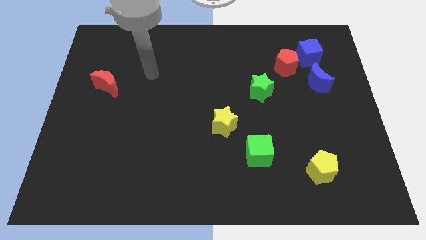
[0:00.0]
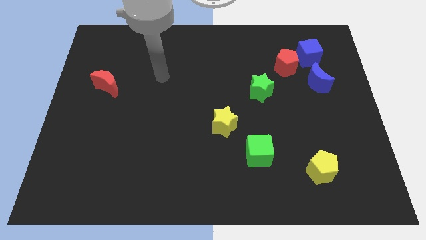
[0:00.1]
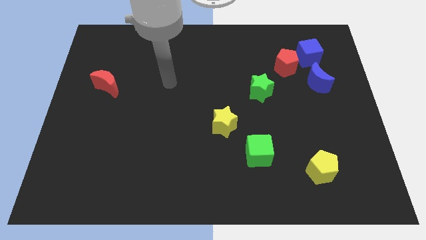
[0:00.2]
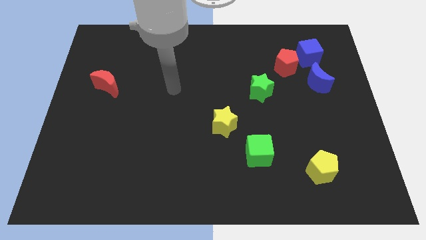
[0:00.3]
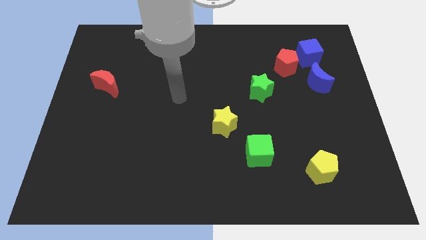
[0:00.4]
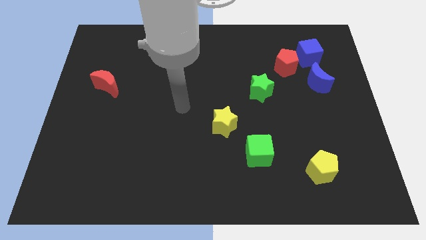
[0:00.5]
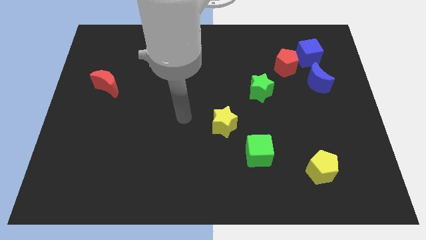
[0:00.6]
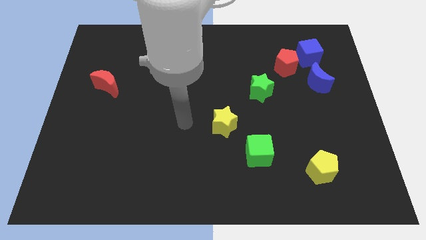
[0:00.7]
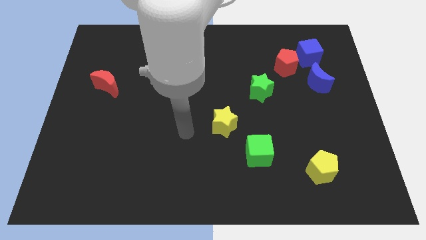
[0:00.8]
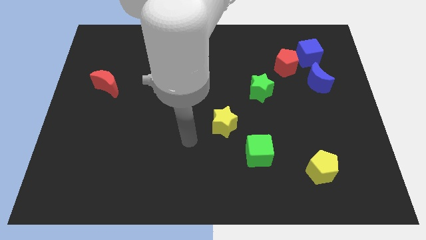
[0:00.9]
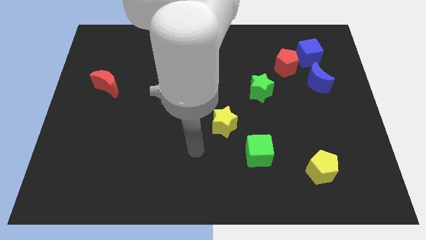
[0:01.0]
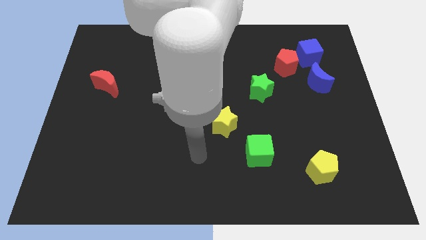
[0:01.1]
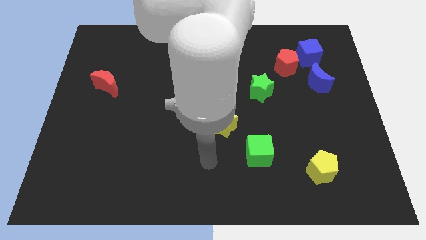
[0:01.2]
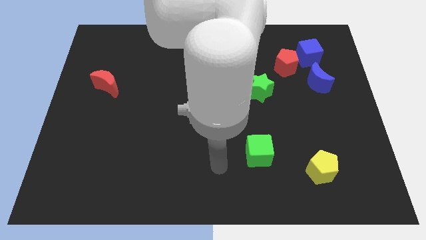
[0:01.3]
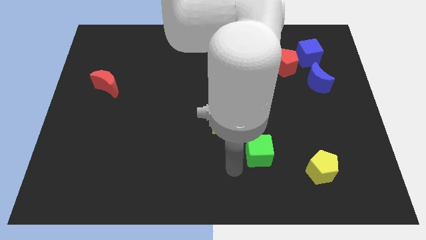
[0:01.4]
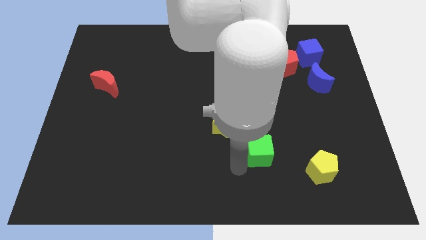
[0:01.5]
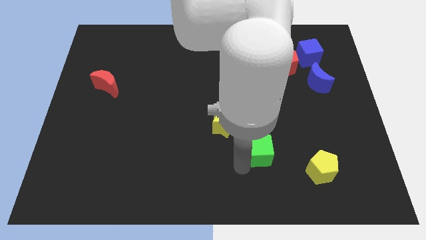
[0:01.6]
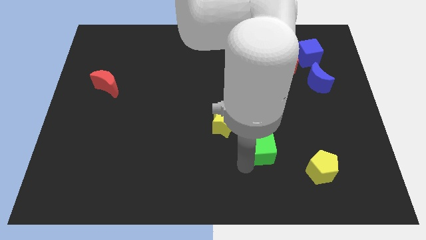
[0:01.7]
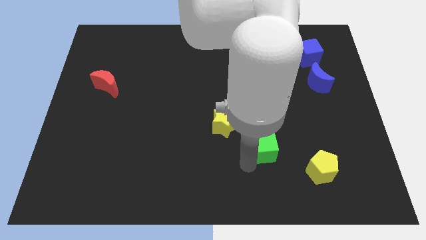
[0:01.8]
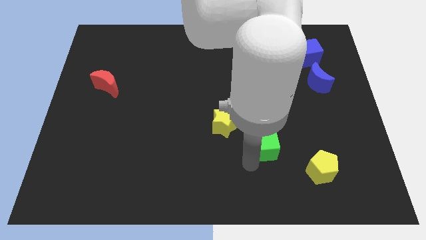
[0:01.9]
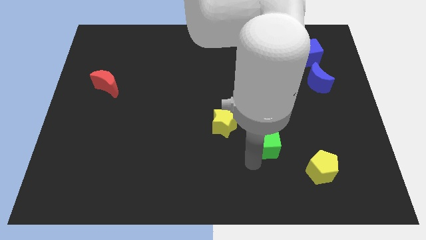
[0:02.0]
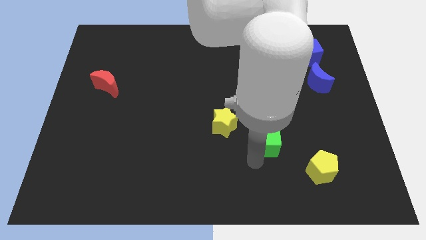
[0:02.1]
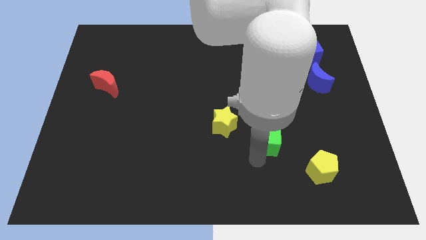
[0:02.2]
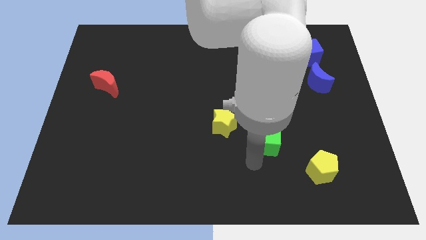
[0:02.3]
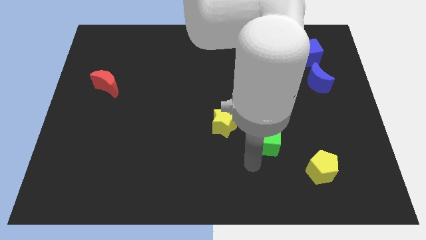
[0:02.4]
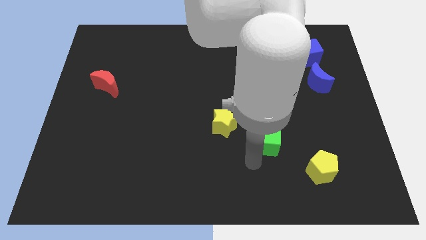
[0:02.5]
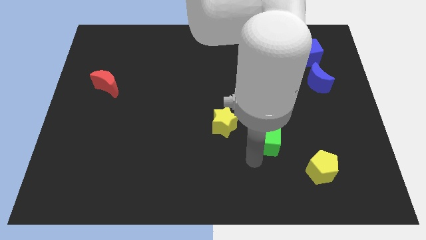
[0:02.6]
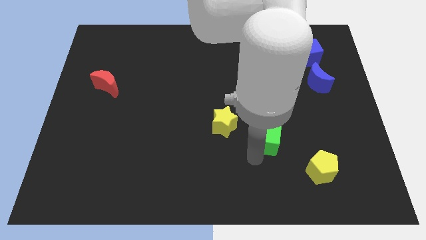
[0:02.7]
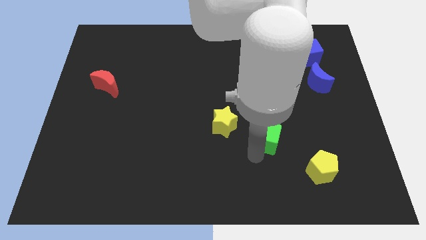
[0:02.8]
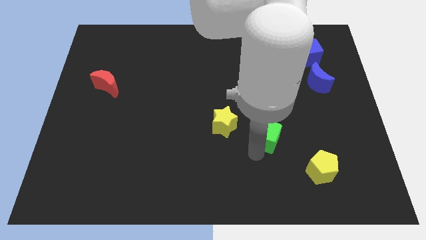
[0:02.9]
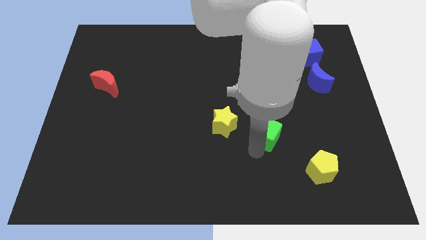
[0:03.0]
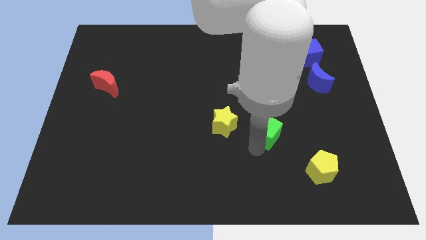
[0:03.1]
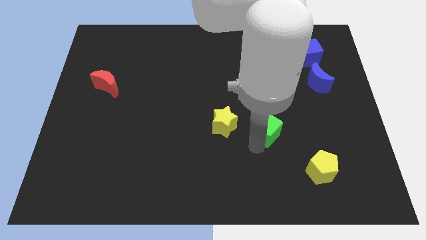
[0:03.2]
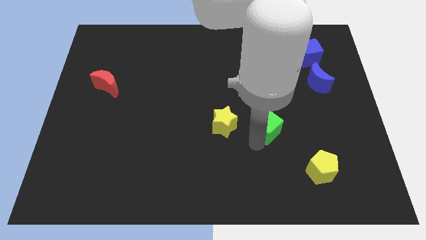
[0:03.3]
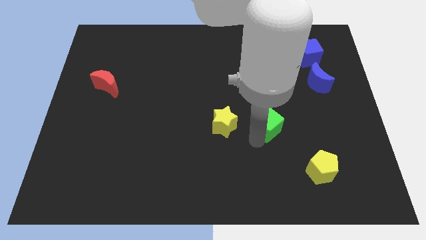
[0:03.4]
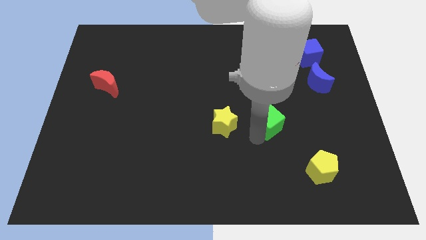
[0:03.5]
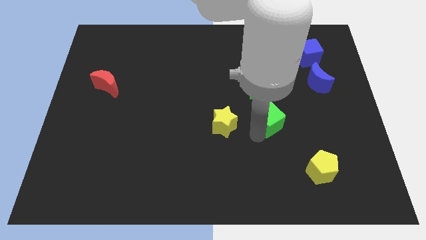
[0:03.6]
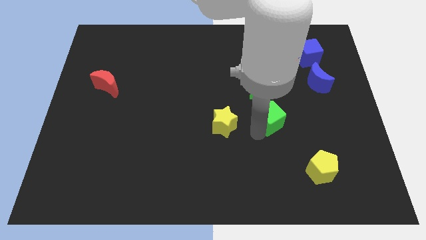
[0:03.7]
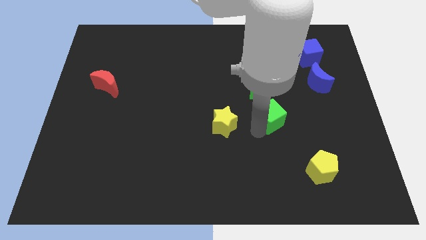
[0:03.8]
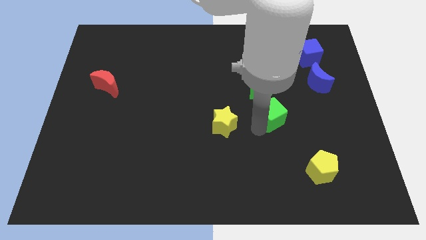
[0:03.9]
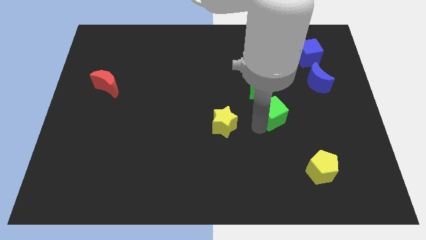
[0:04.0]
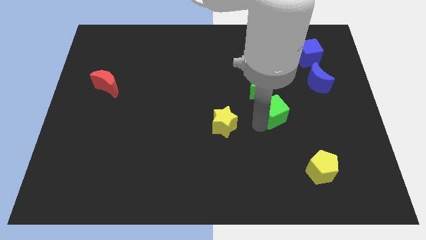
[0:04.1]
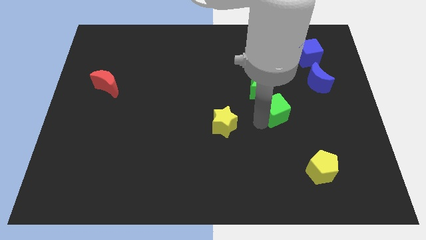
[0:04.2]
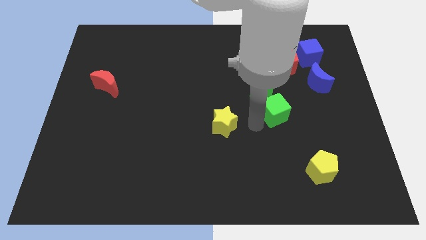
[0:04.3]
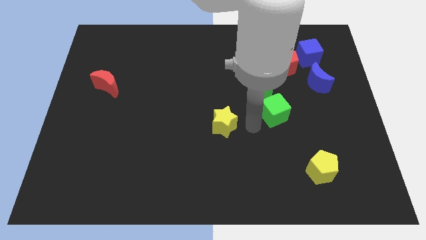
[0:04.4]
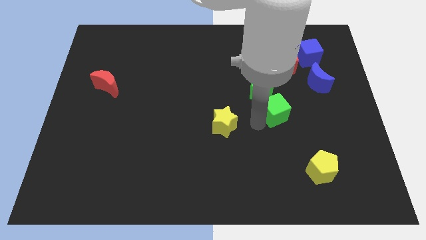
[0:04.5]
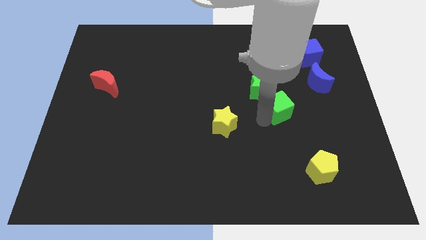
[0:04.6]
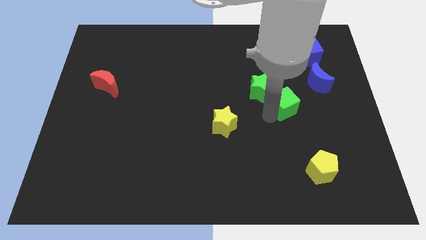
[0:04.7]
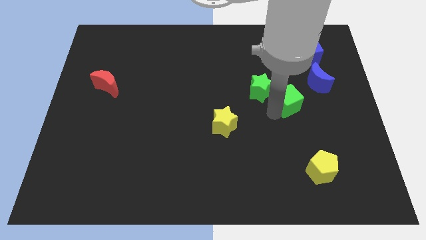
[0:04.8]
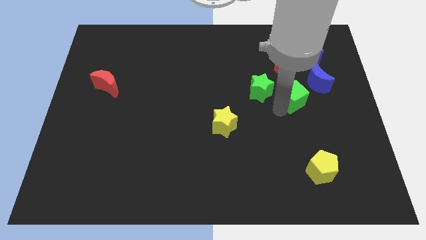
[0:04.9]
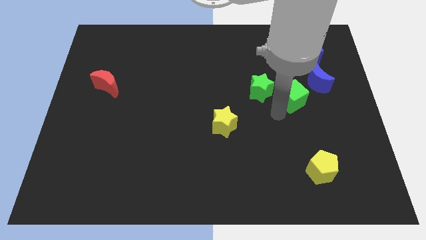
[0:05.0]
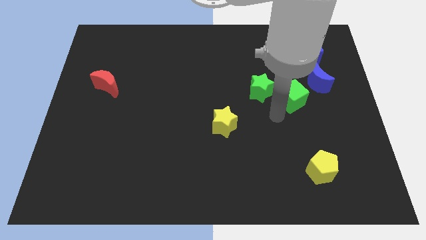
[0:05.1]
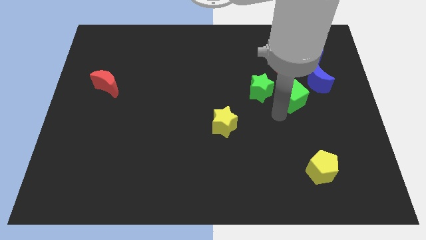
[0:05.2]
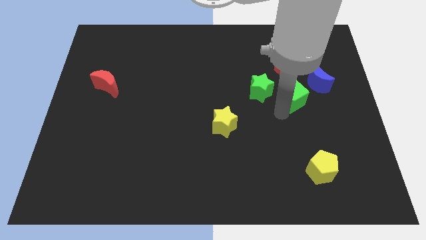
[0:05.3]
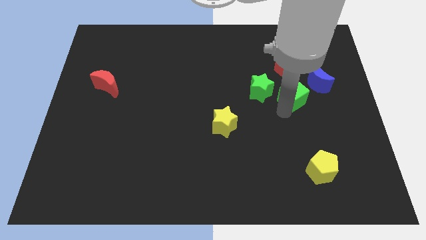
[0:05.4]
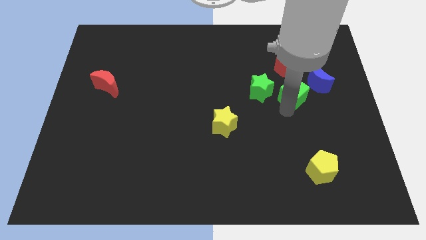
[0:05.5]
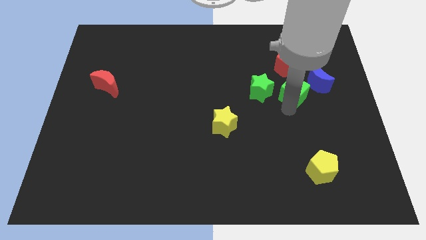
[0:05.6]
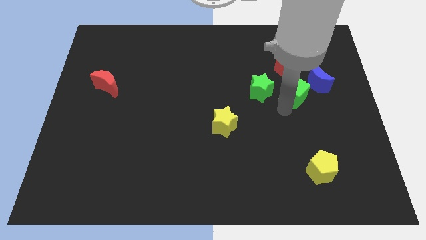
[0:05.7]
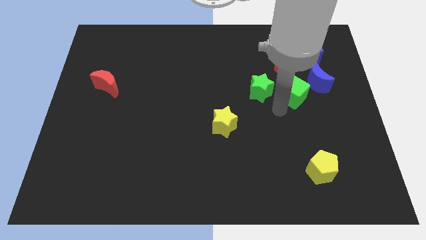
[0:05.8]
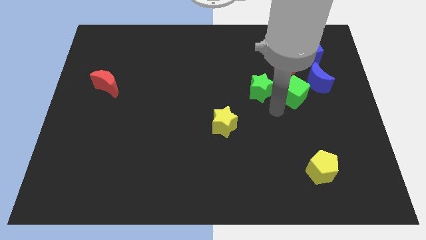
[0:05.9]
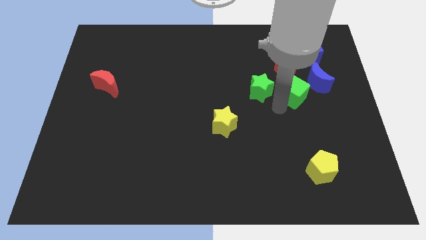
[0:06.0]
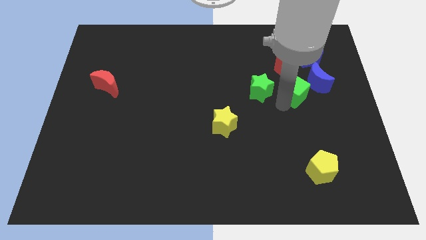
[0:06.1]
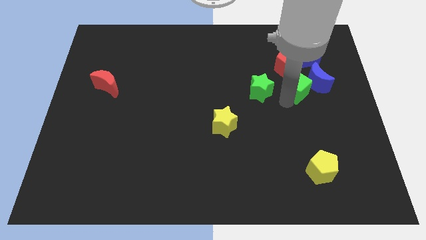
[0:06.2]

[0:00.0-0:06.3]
move the green cube towards the blue moon

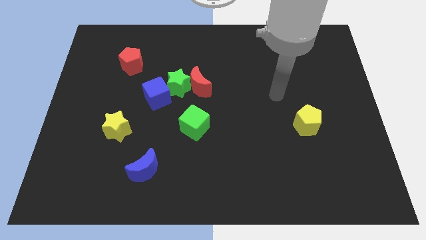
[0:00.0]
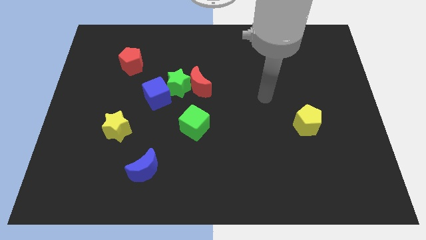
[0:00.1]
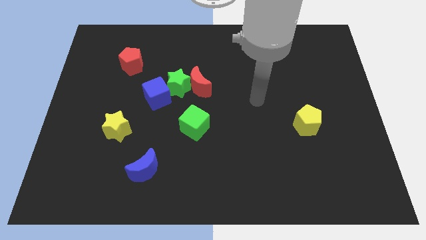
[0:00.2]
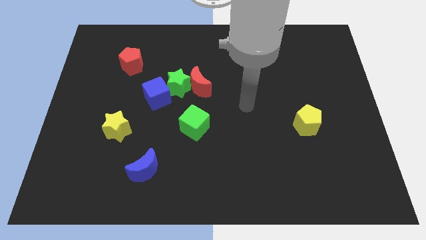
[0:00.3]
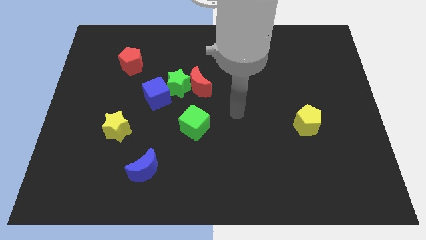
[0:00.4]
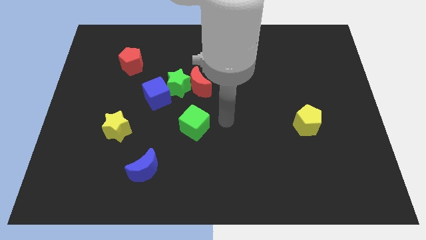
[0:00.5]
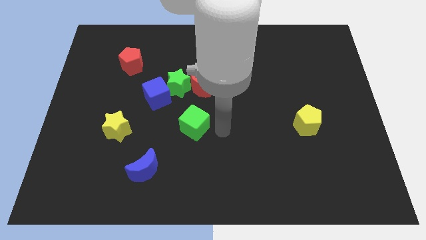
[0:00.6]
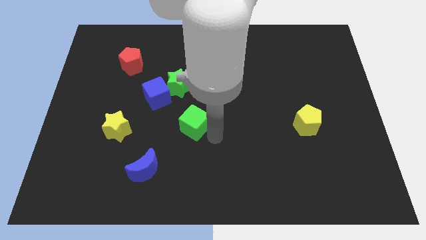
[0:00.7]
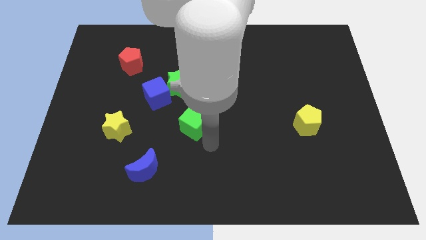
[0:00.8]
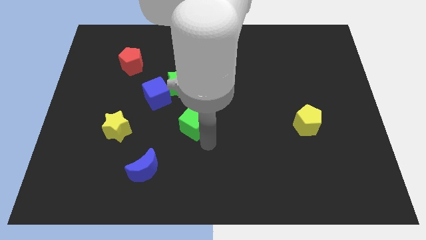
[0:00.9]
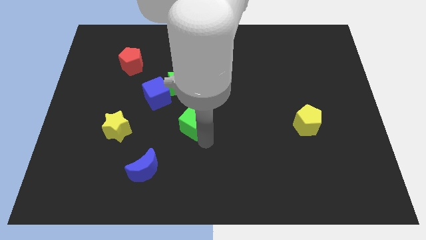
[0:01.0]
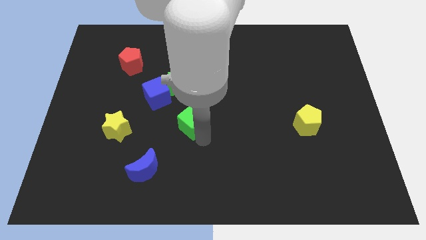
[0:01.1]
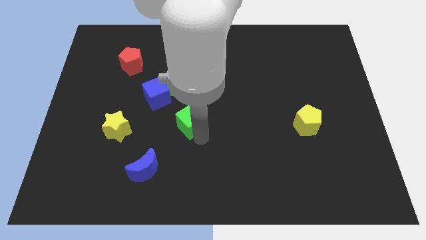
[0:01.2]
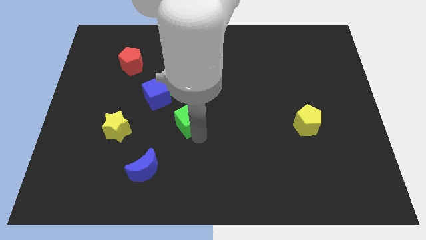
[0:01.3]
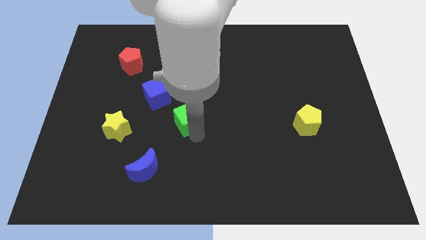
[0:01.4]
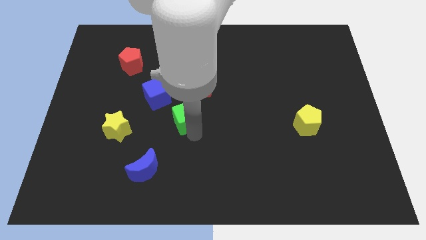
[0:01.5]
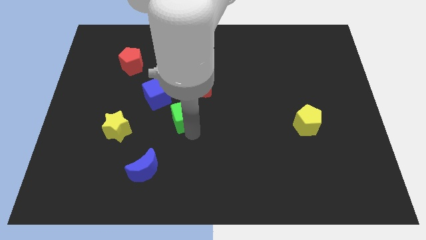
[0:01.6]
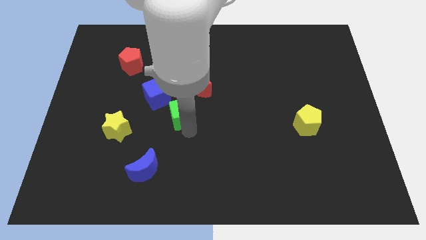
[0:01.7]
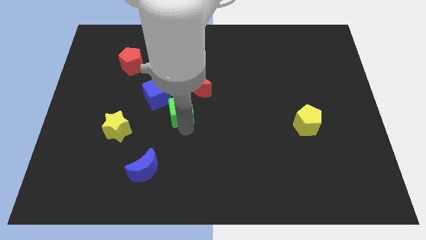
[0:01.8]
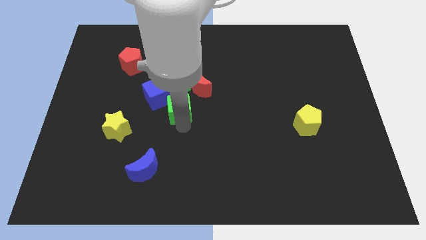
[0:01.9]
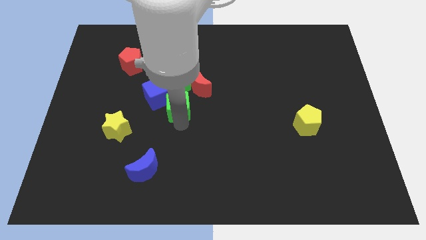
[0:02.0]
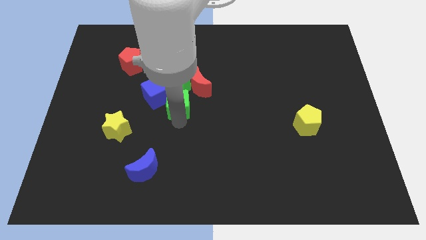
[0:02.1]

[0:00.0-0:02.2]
slide the green cube next to the green star
